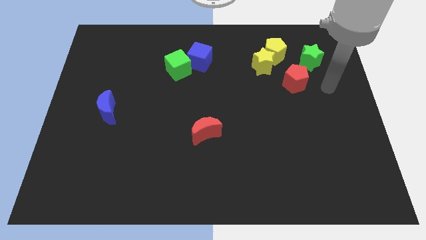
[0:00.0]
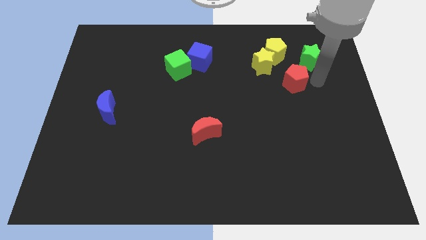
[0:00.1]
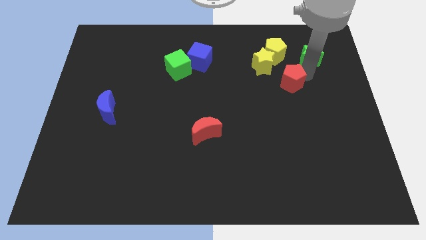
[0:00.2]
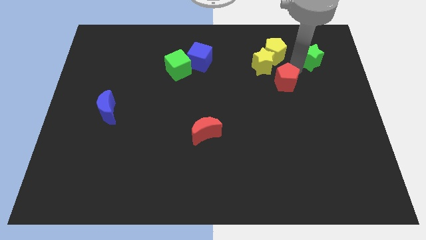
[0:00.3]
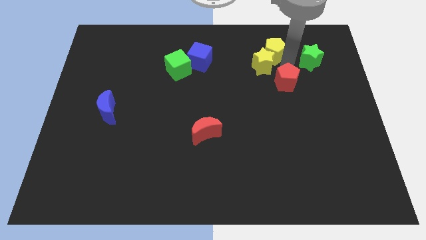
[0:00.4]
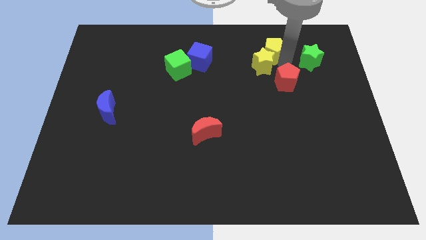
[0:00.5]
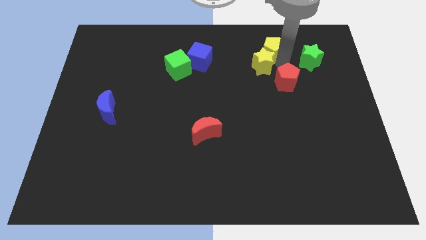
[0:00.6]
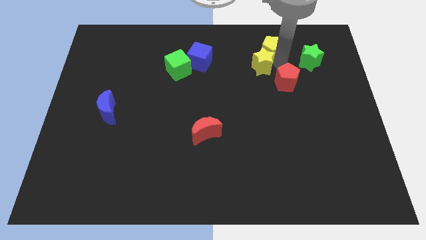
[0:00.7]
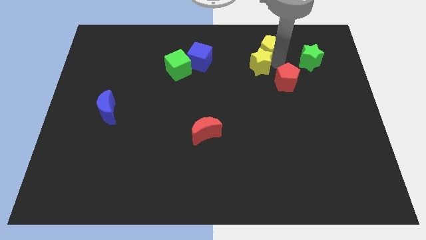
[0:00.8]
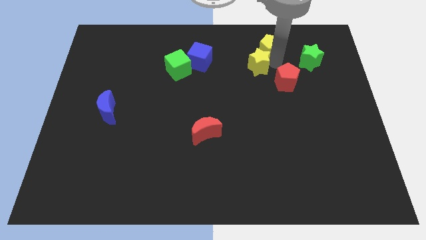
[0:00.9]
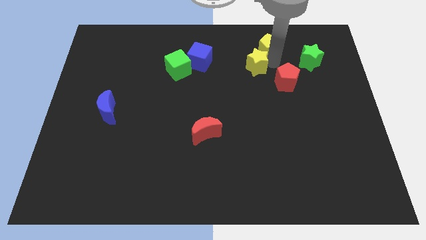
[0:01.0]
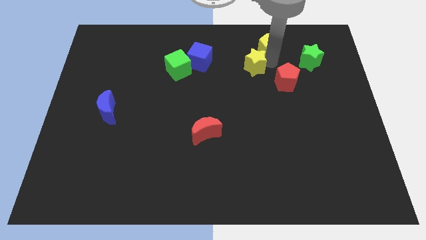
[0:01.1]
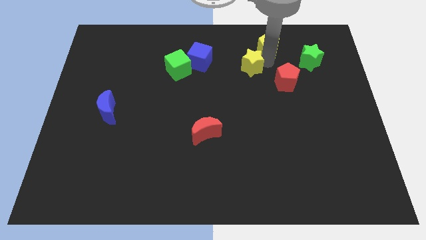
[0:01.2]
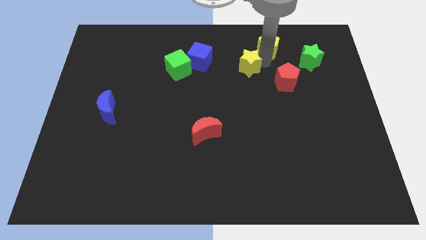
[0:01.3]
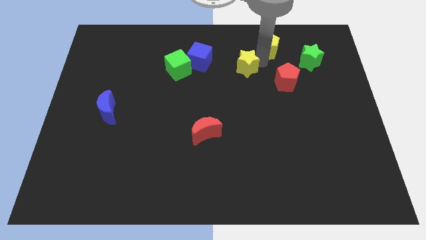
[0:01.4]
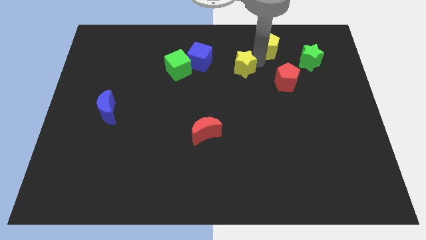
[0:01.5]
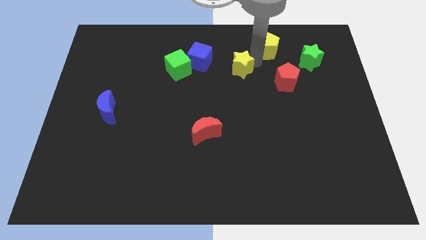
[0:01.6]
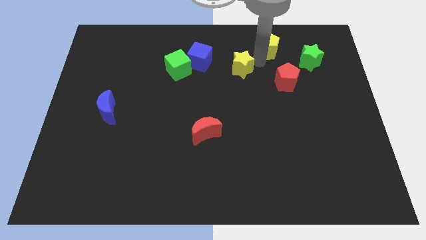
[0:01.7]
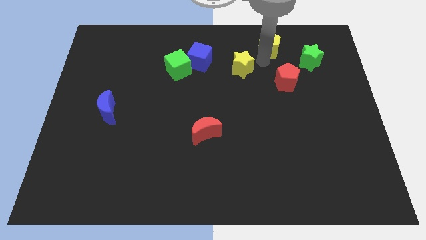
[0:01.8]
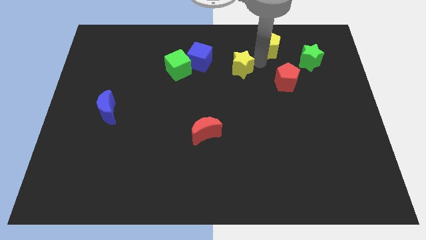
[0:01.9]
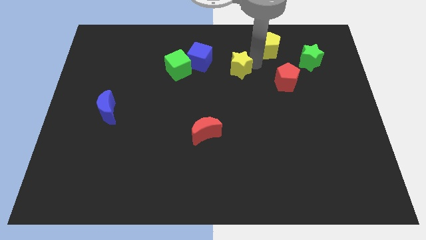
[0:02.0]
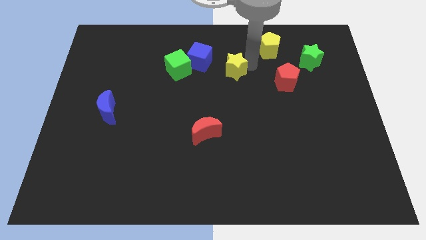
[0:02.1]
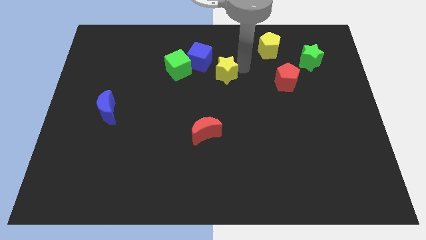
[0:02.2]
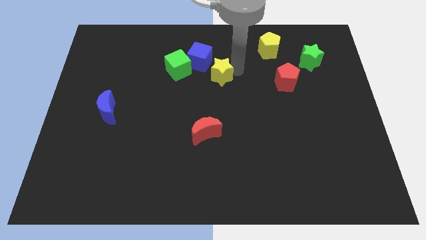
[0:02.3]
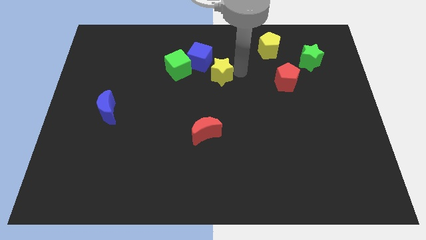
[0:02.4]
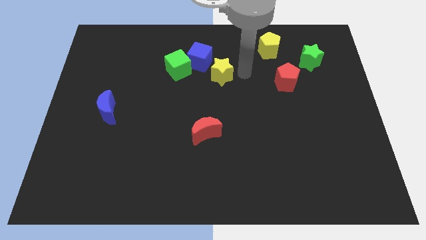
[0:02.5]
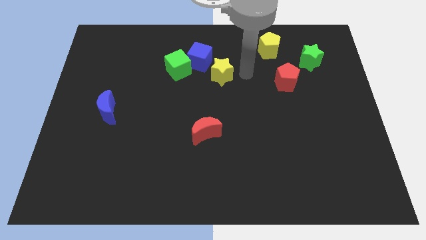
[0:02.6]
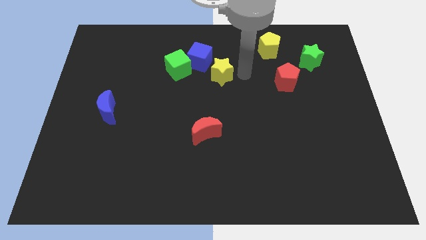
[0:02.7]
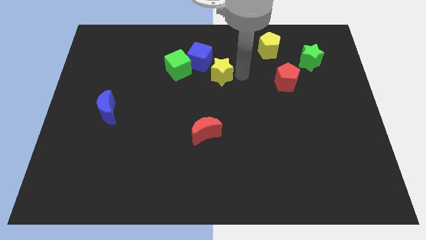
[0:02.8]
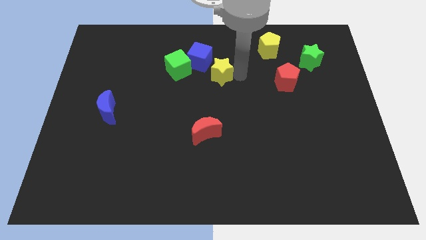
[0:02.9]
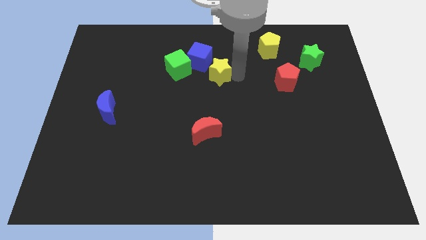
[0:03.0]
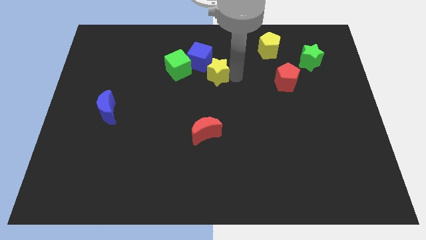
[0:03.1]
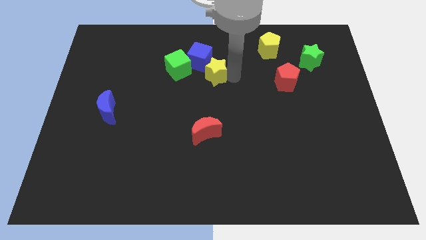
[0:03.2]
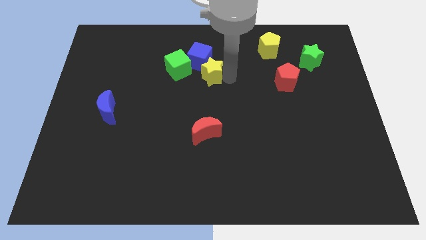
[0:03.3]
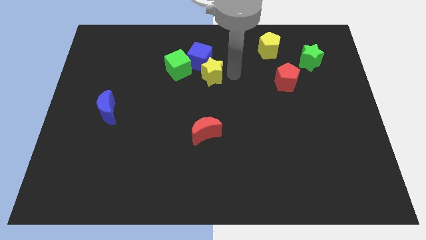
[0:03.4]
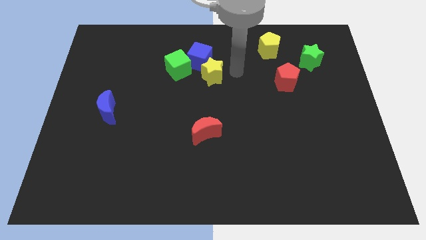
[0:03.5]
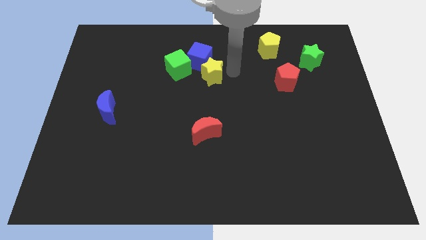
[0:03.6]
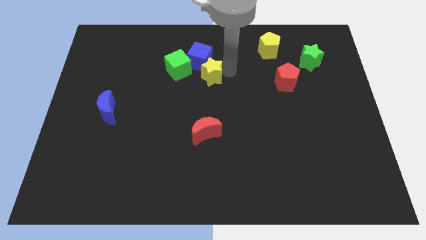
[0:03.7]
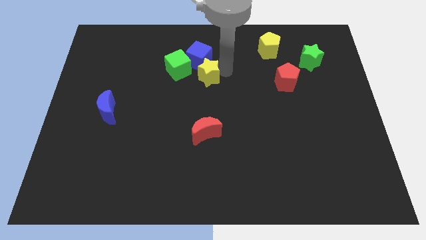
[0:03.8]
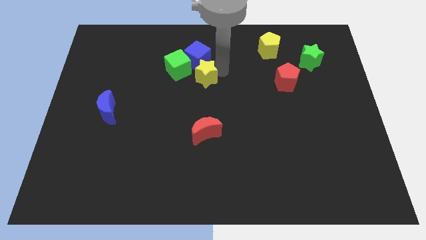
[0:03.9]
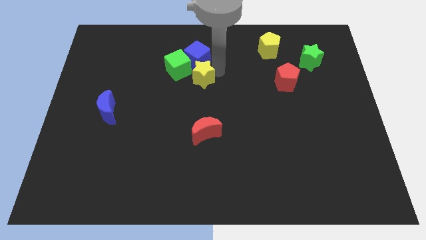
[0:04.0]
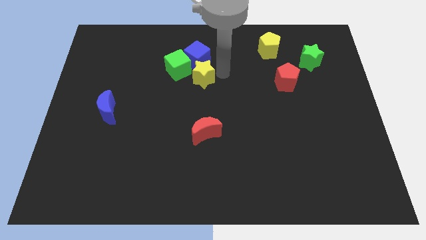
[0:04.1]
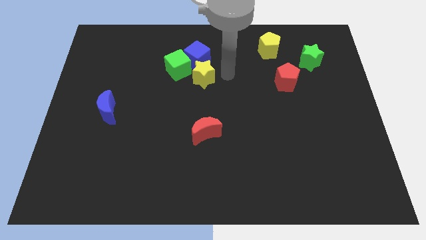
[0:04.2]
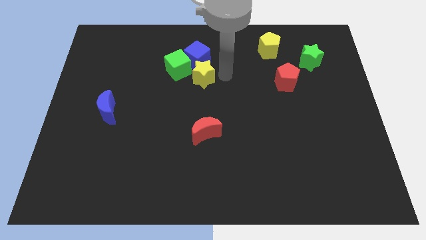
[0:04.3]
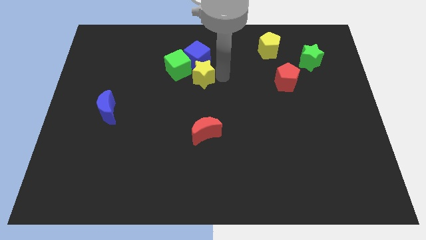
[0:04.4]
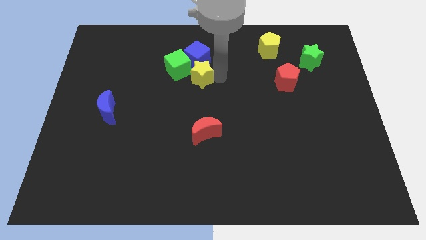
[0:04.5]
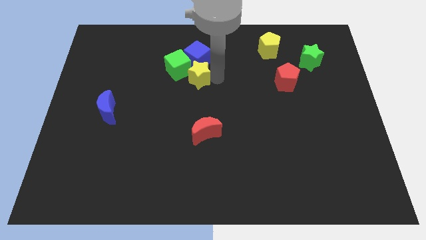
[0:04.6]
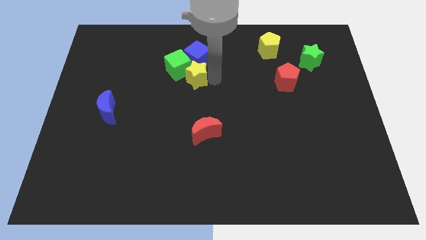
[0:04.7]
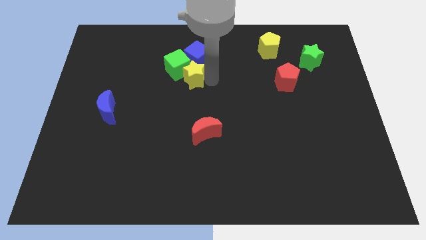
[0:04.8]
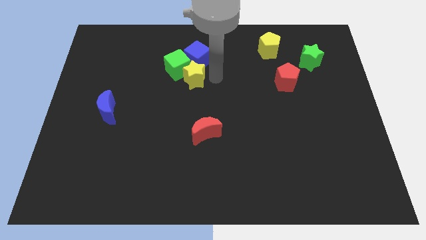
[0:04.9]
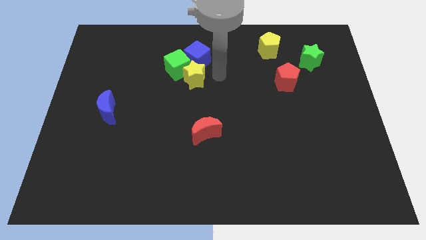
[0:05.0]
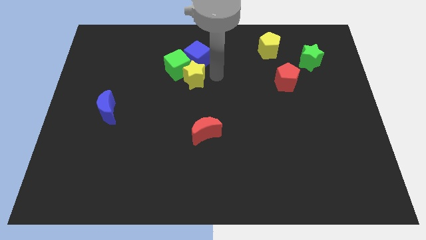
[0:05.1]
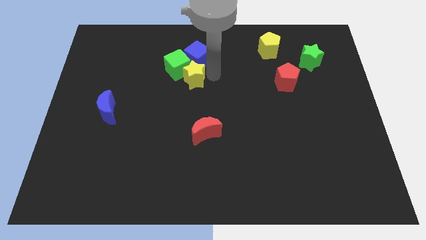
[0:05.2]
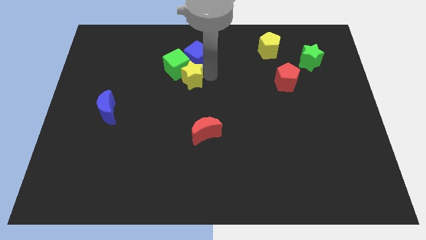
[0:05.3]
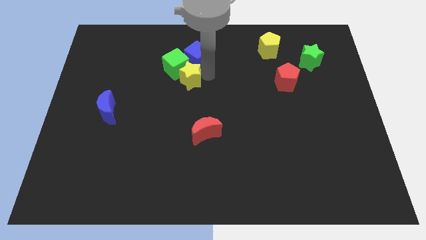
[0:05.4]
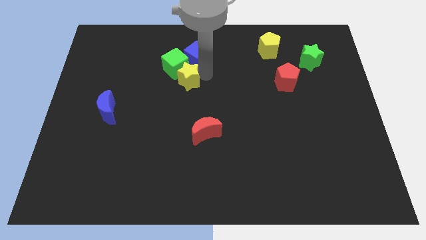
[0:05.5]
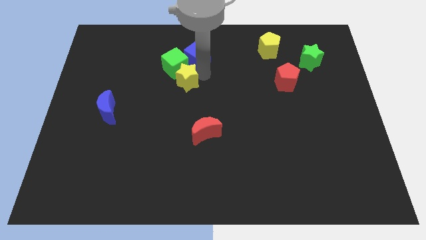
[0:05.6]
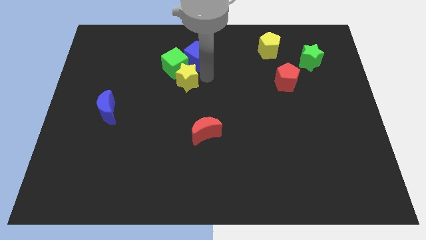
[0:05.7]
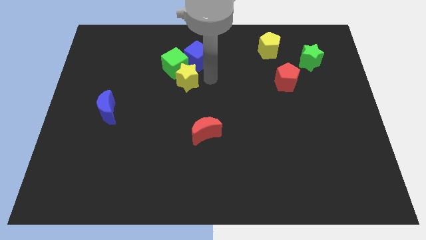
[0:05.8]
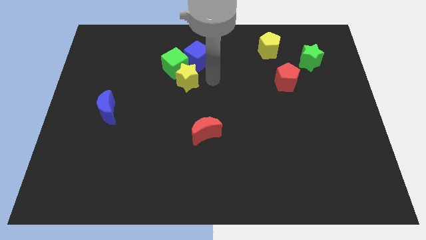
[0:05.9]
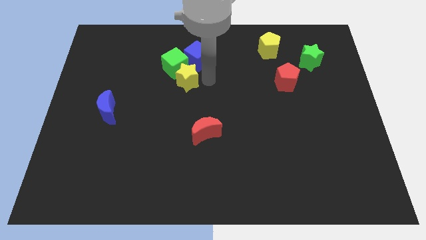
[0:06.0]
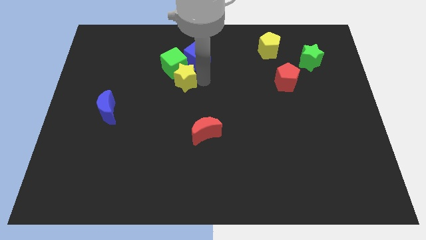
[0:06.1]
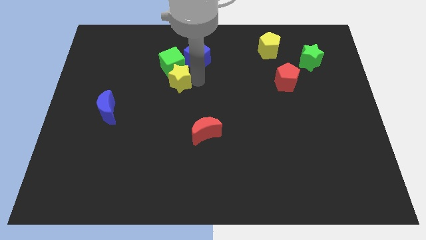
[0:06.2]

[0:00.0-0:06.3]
slide the yellow star to the left

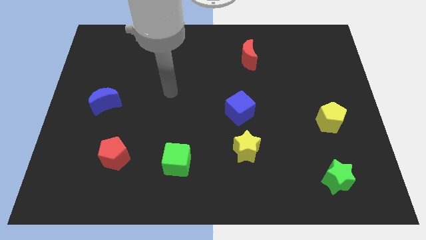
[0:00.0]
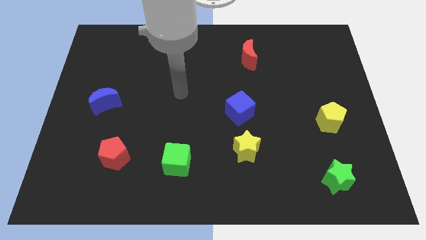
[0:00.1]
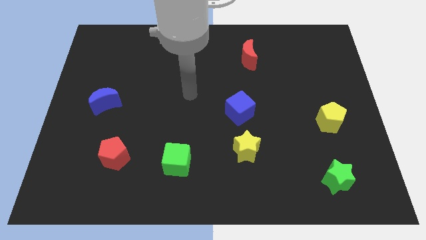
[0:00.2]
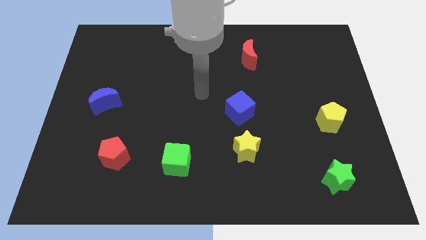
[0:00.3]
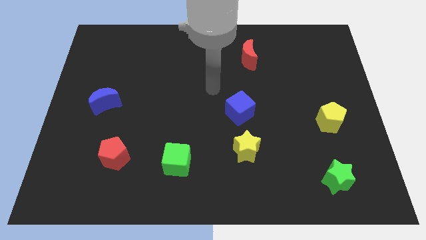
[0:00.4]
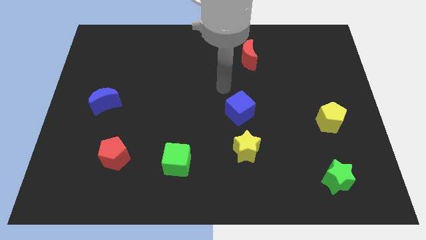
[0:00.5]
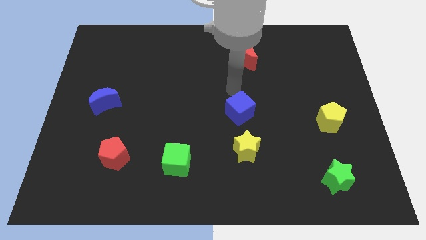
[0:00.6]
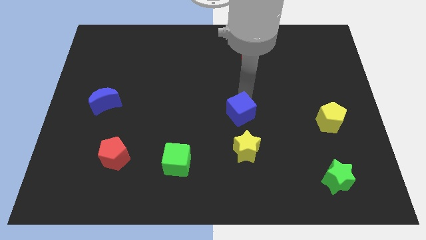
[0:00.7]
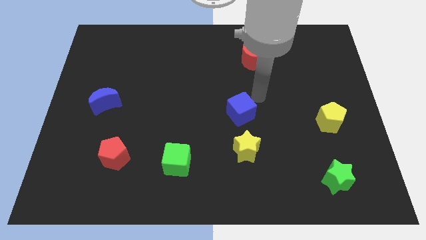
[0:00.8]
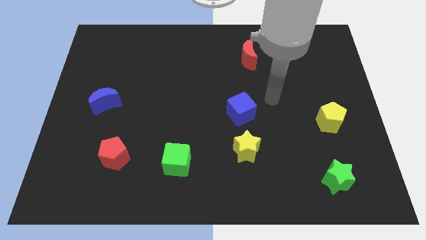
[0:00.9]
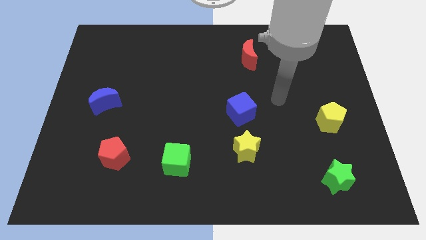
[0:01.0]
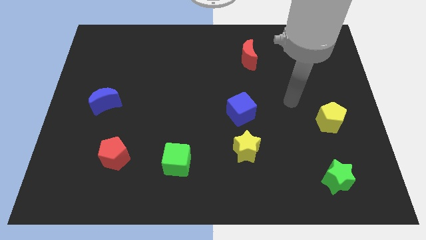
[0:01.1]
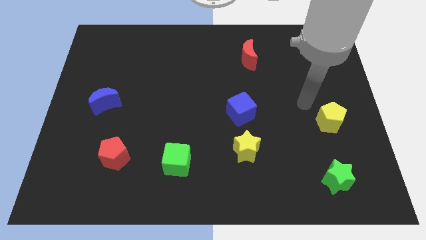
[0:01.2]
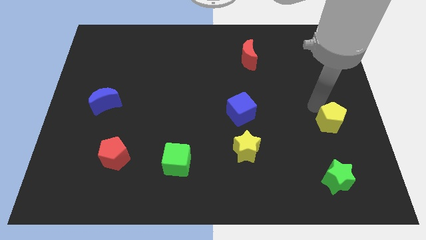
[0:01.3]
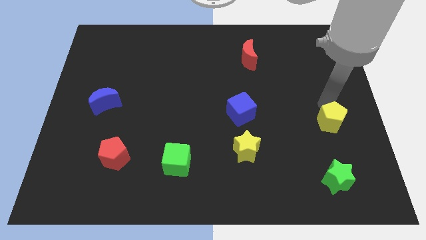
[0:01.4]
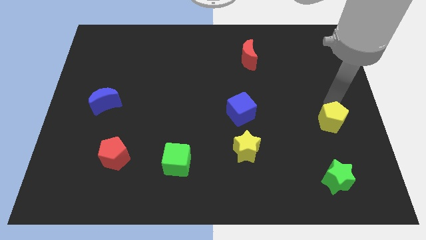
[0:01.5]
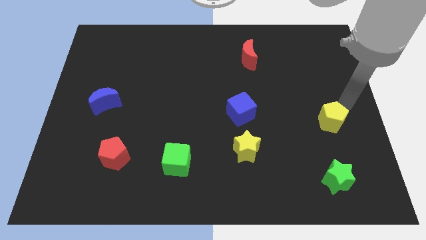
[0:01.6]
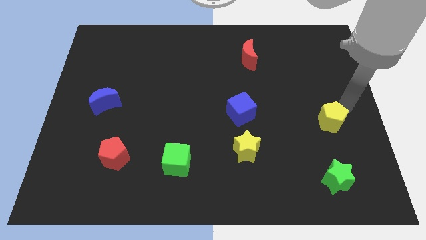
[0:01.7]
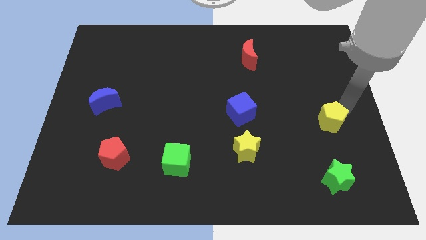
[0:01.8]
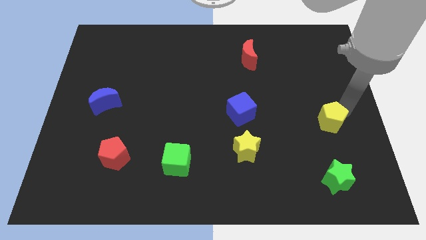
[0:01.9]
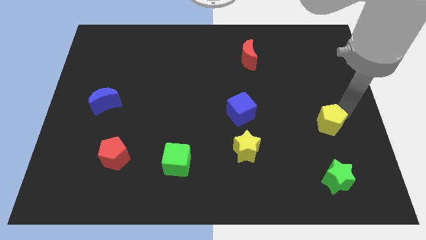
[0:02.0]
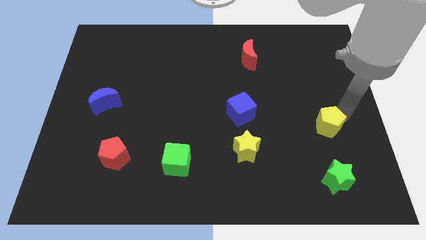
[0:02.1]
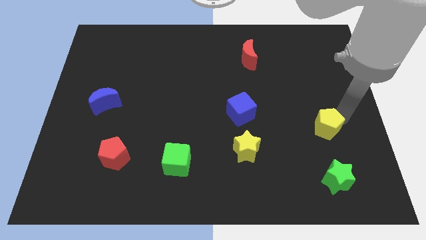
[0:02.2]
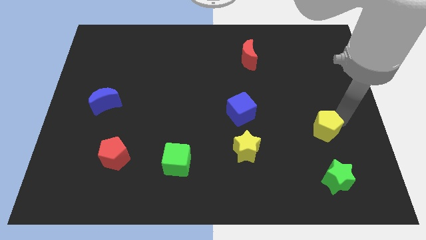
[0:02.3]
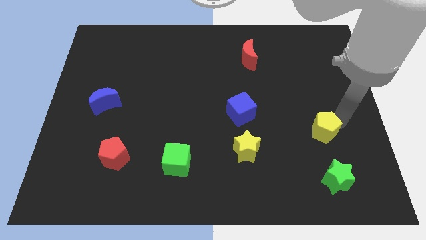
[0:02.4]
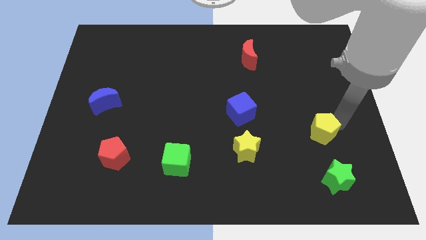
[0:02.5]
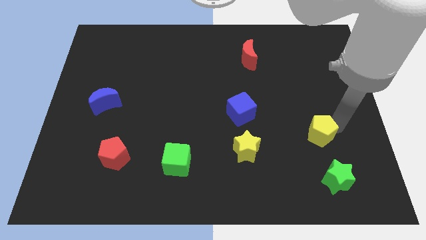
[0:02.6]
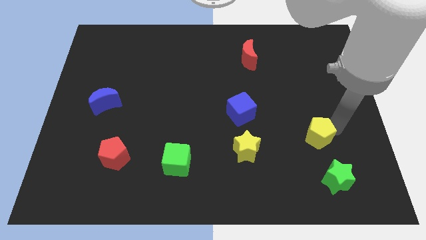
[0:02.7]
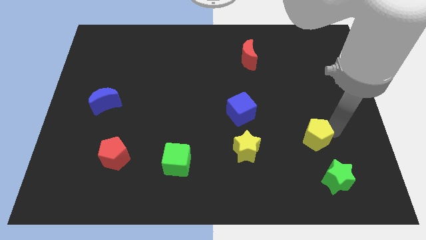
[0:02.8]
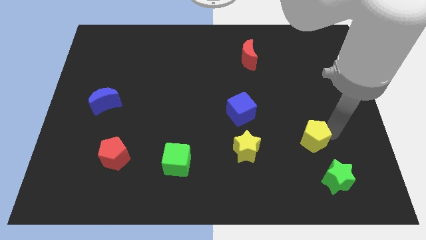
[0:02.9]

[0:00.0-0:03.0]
slightly push the yellow pentagon downwards and then left
